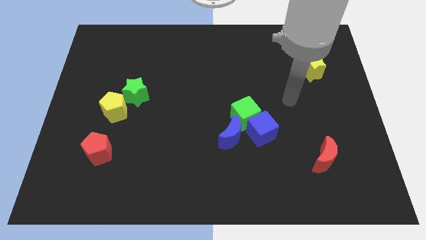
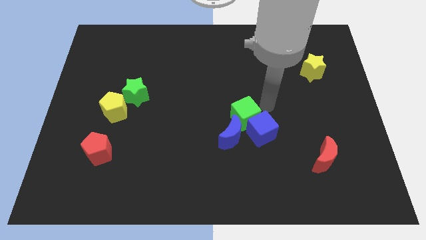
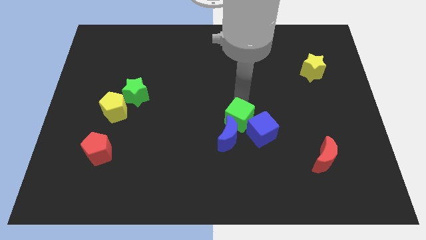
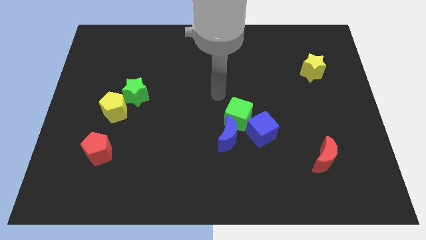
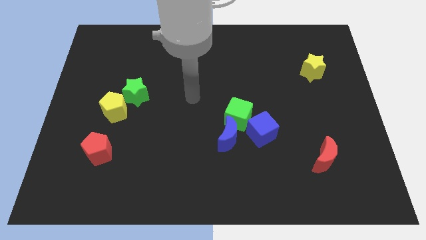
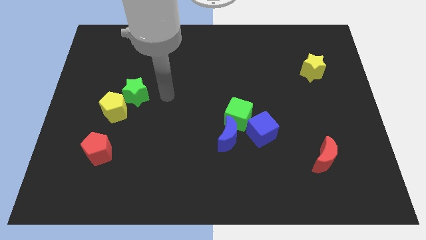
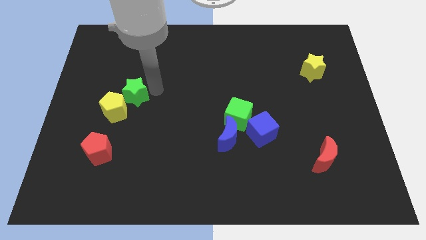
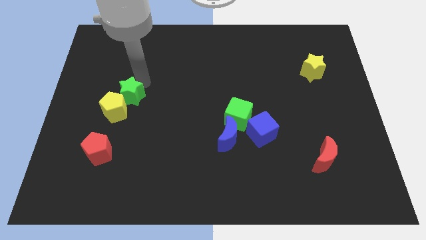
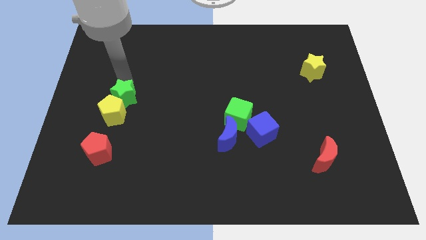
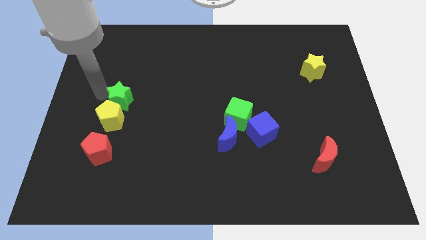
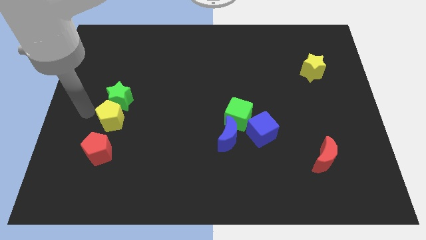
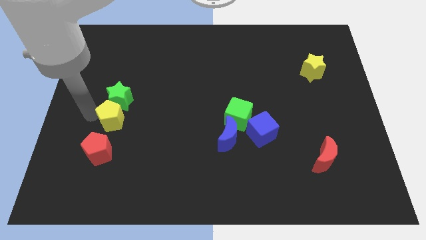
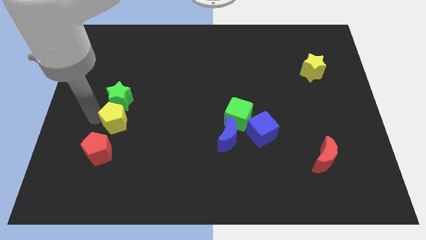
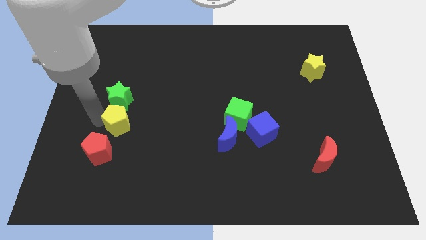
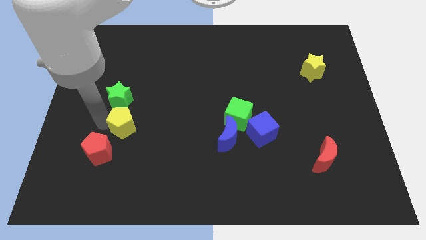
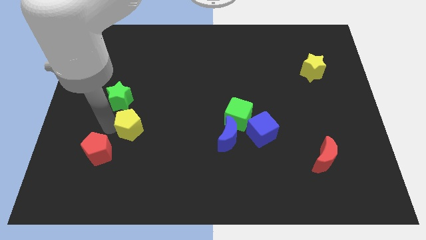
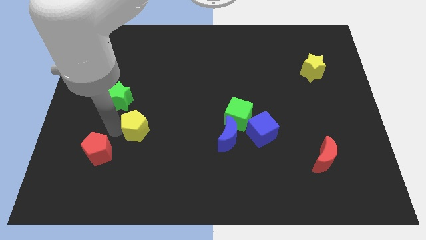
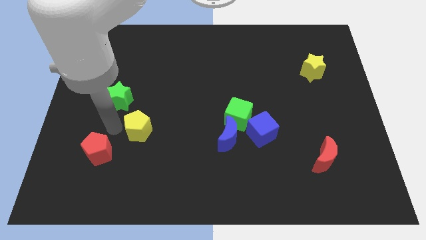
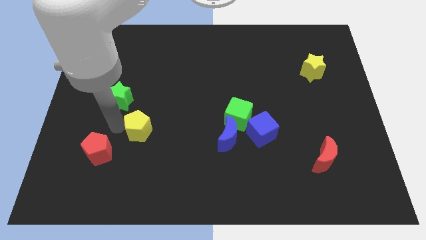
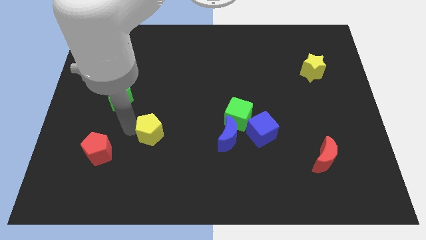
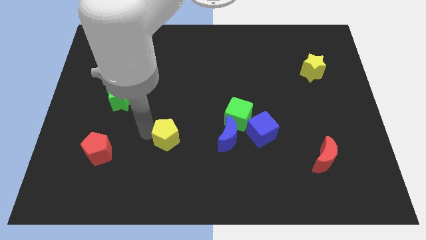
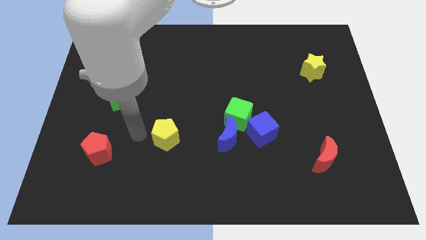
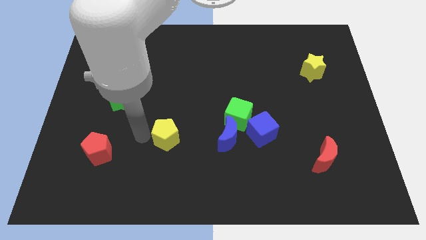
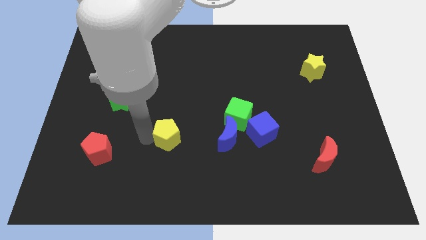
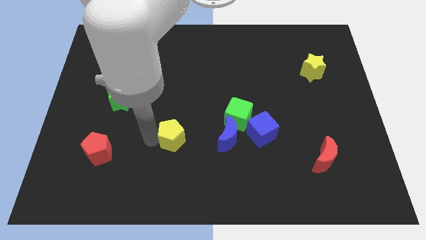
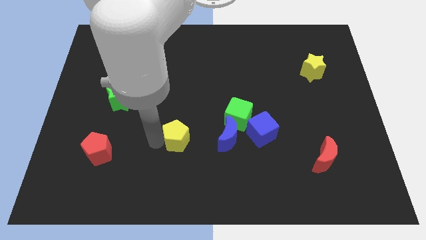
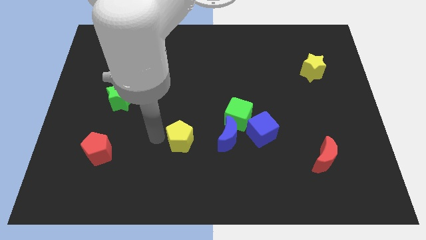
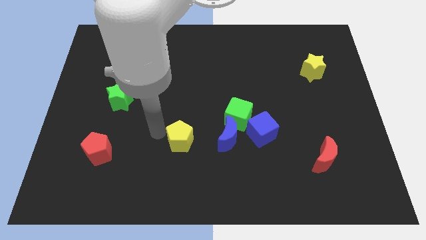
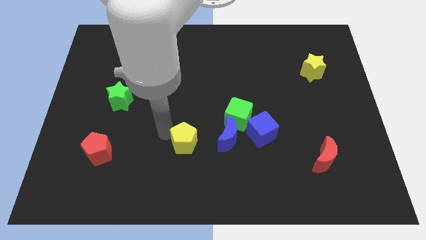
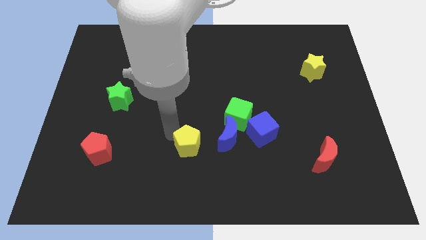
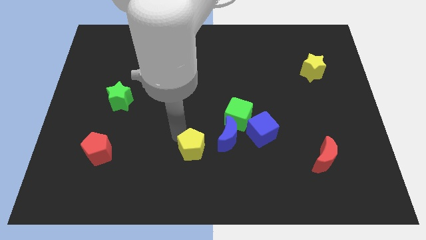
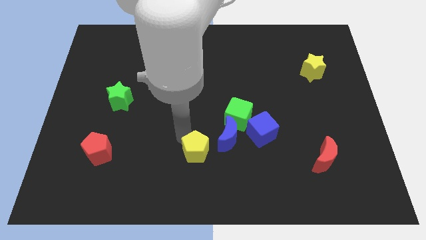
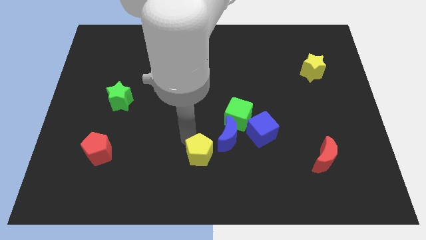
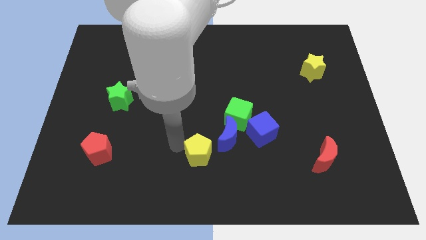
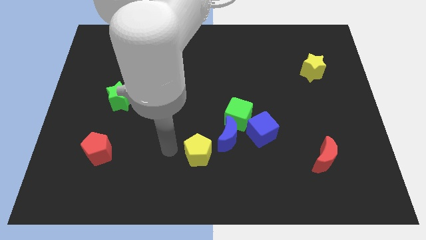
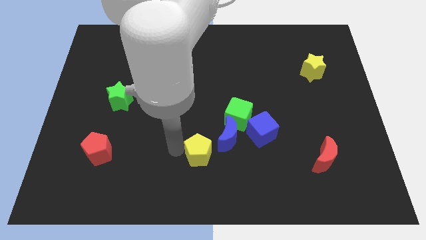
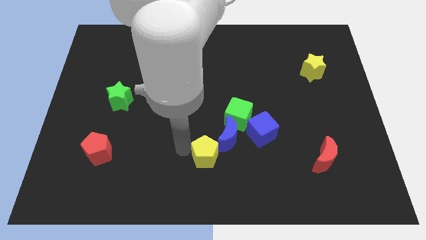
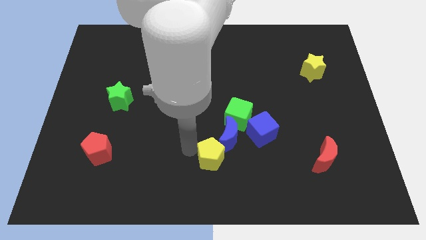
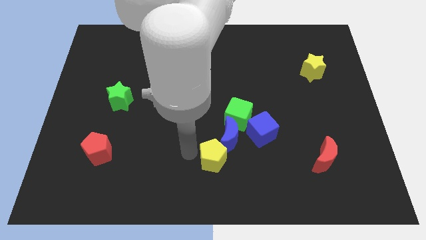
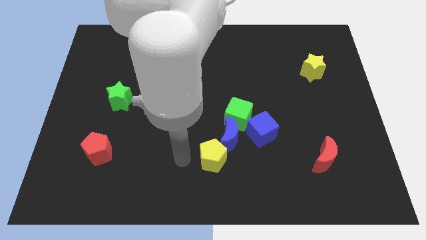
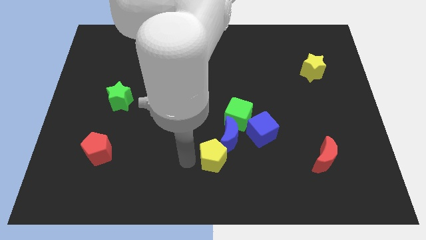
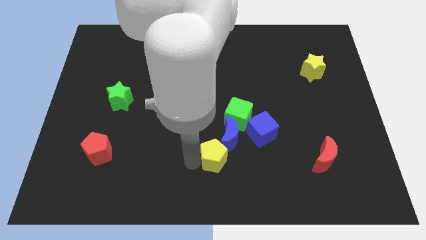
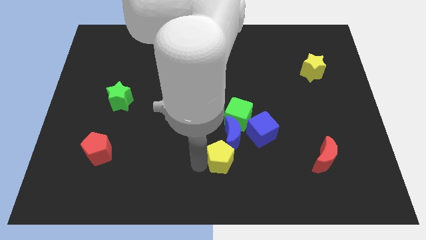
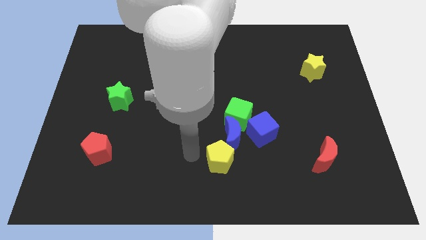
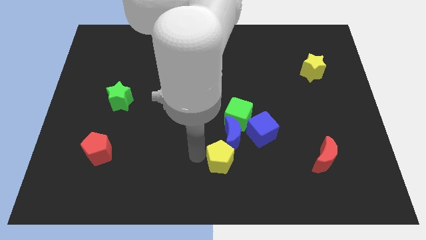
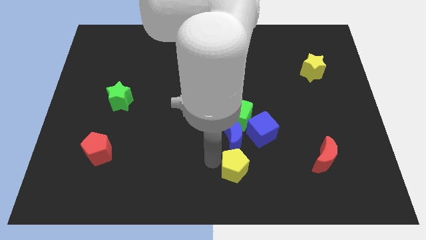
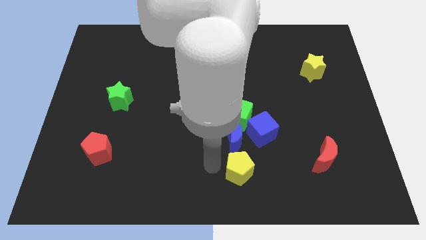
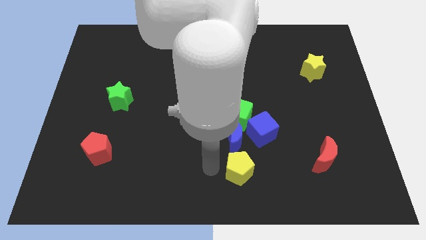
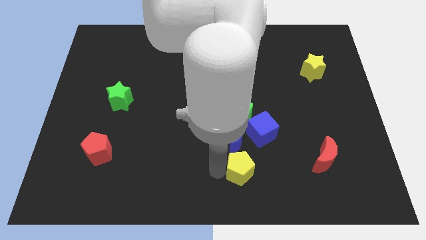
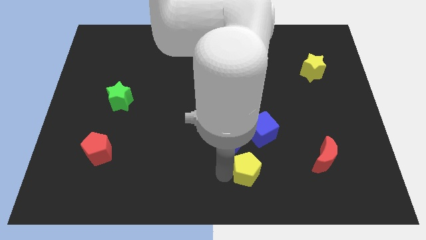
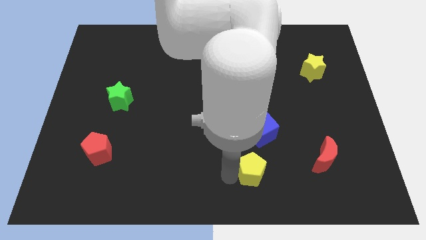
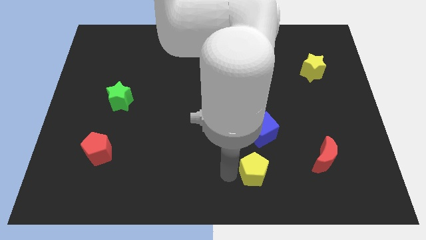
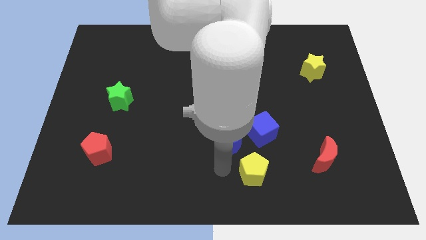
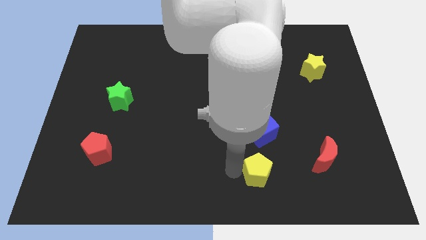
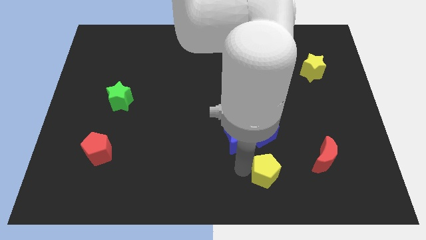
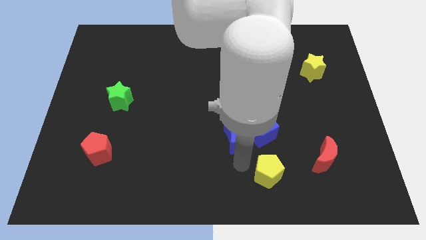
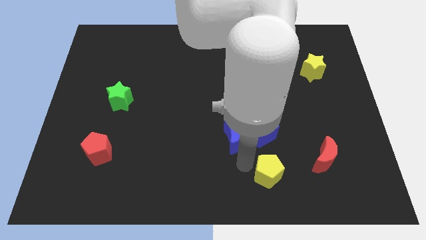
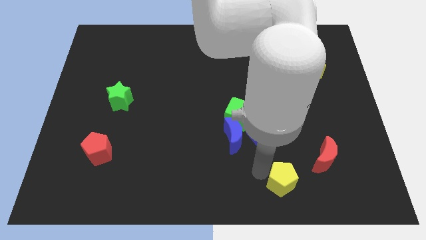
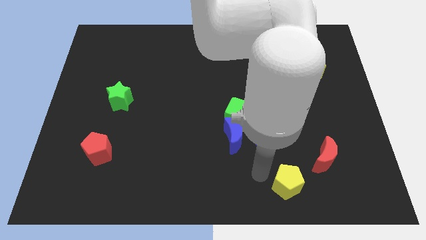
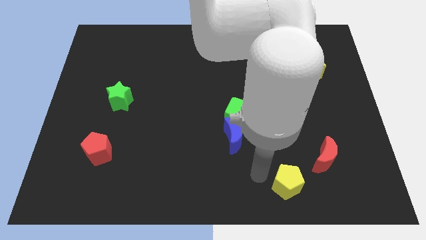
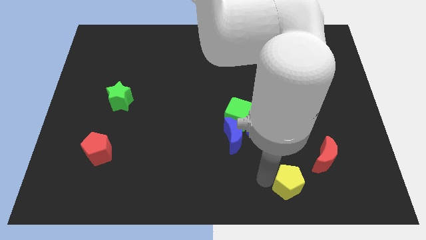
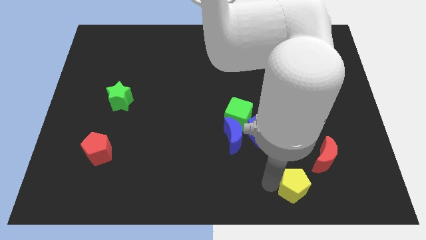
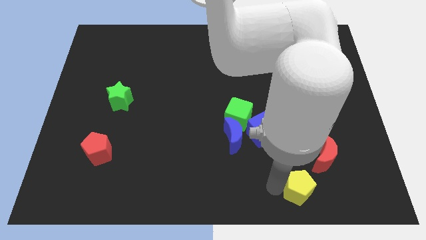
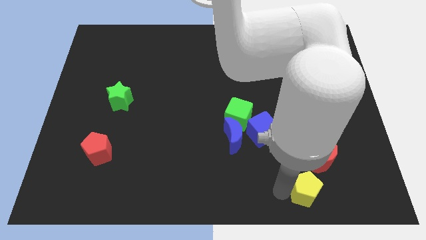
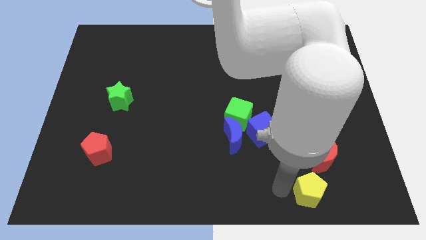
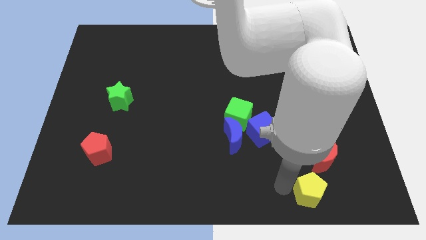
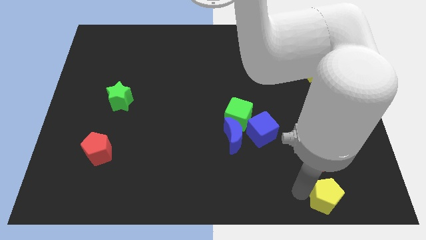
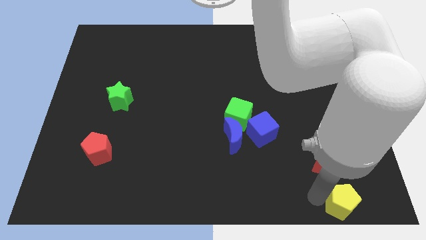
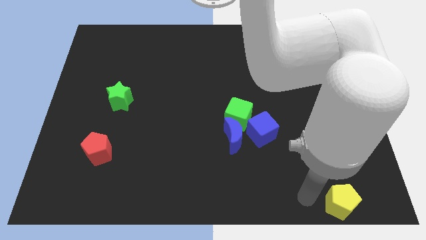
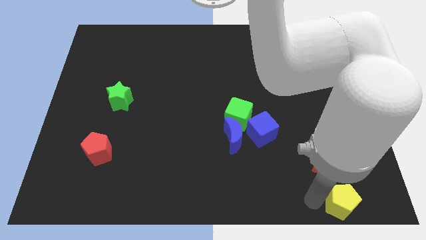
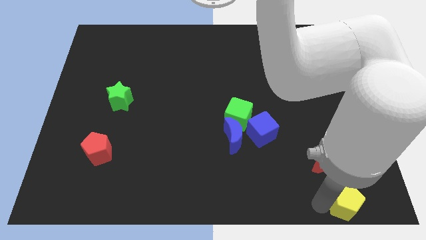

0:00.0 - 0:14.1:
put the yellow pentagon to the lower right corner
